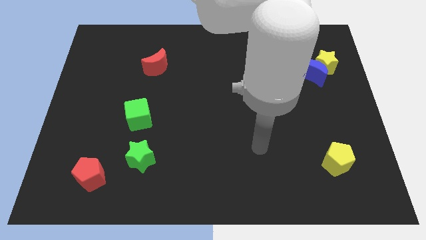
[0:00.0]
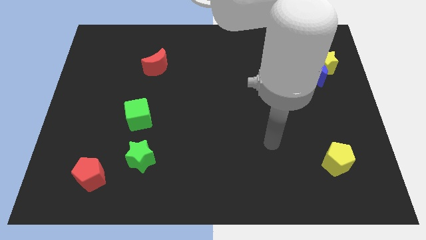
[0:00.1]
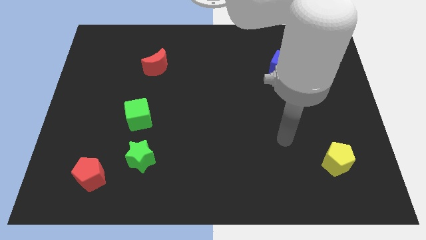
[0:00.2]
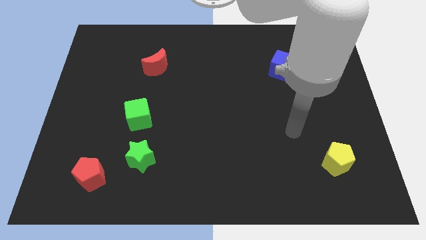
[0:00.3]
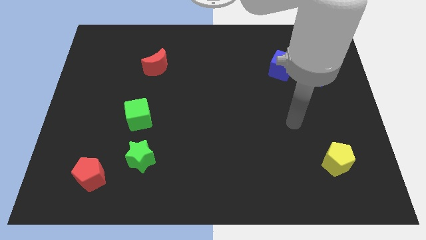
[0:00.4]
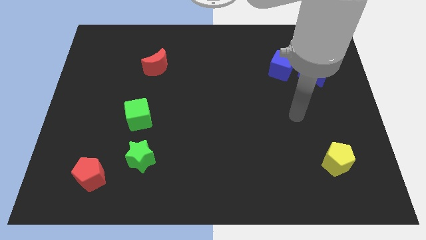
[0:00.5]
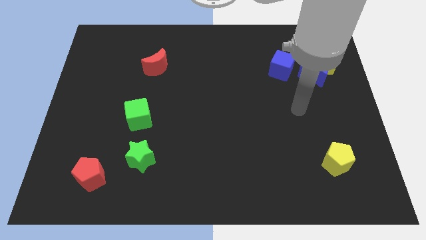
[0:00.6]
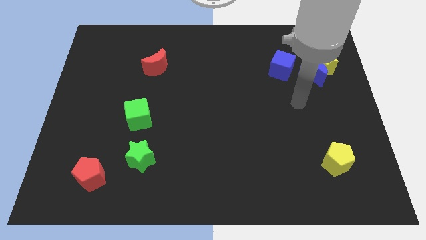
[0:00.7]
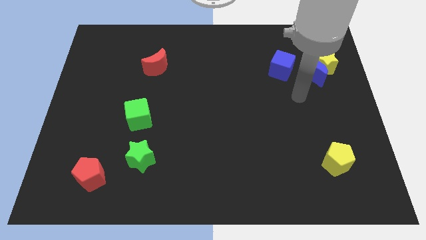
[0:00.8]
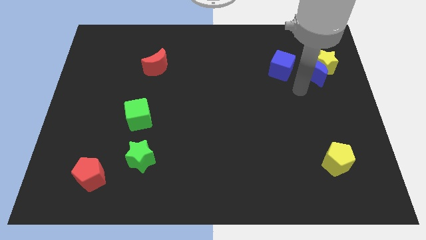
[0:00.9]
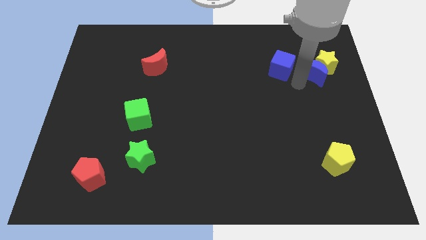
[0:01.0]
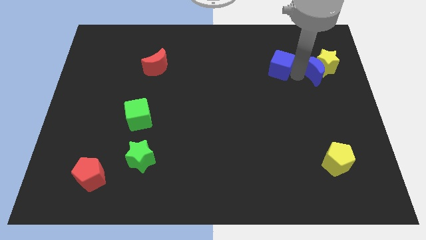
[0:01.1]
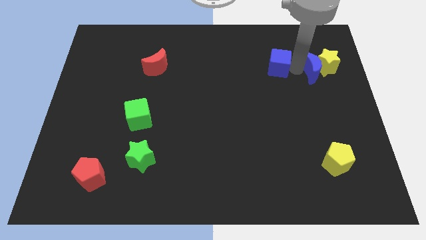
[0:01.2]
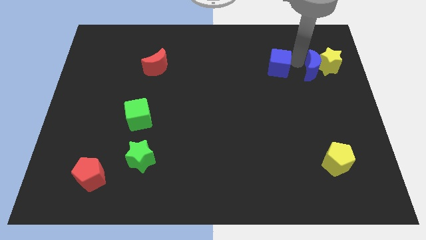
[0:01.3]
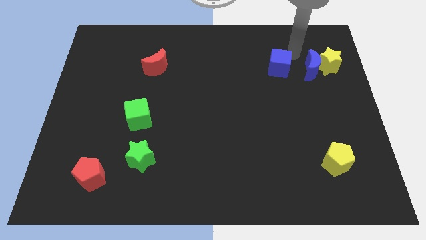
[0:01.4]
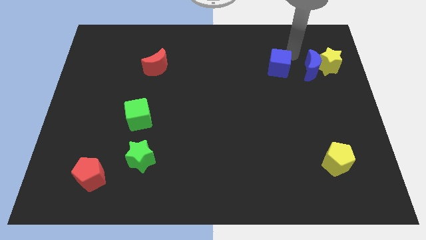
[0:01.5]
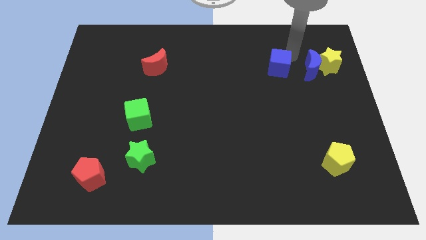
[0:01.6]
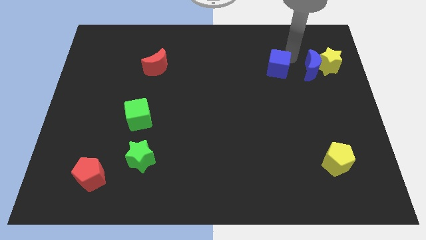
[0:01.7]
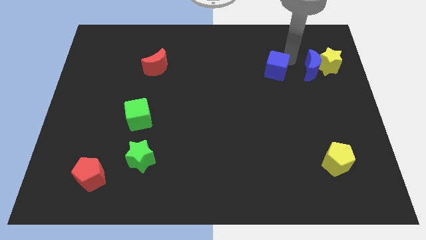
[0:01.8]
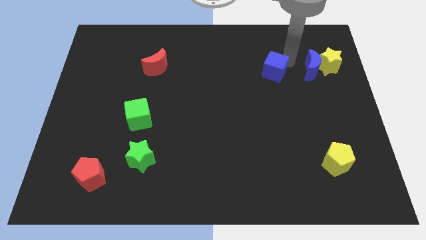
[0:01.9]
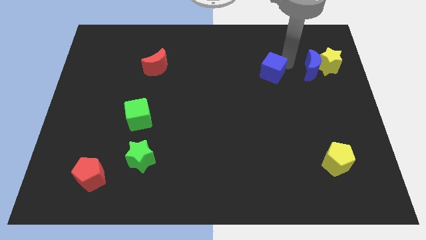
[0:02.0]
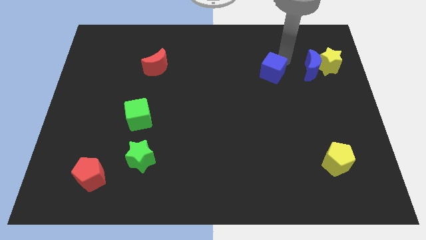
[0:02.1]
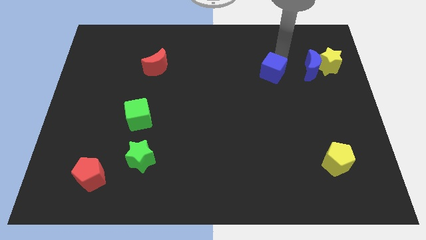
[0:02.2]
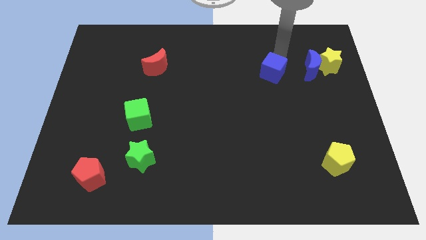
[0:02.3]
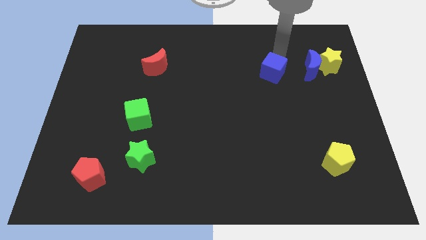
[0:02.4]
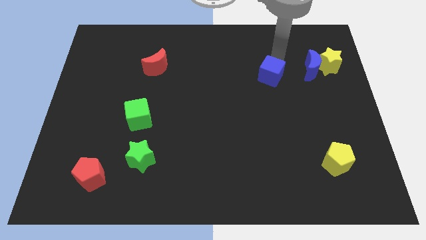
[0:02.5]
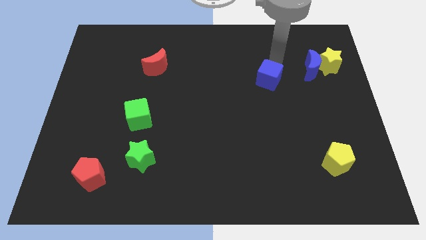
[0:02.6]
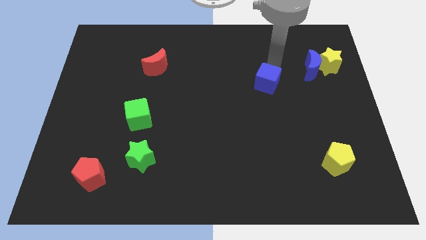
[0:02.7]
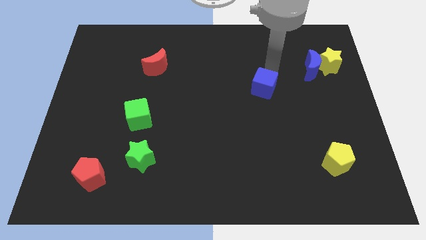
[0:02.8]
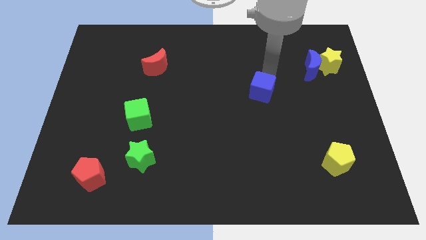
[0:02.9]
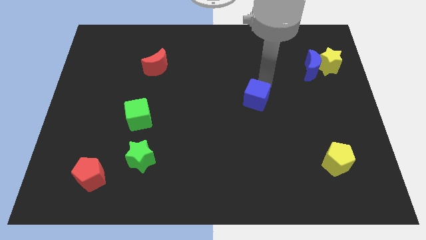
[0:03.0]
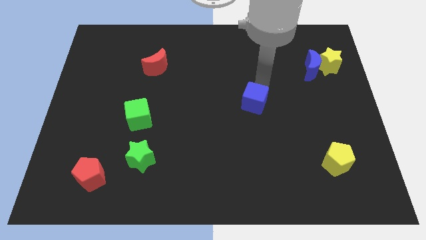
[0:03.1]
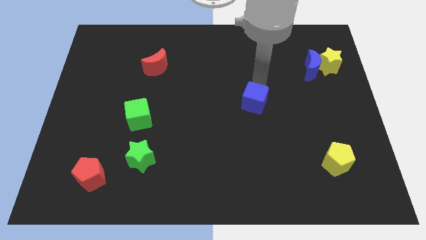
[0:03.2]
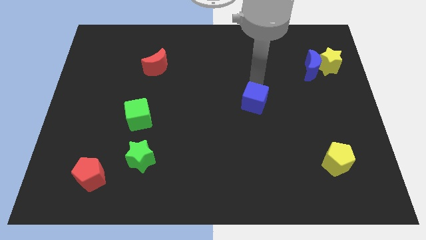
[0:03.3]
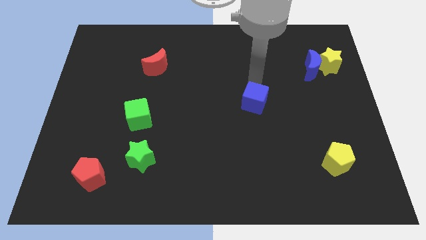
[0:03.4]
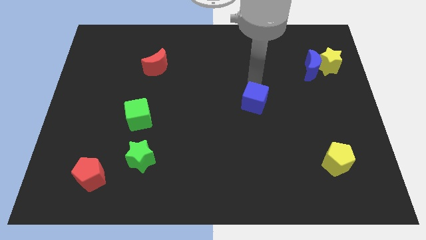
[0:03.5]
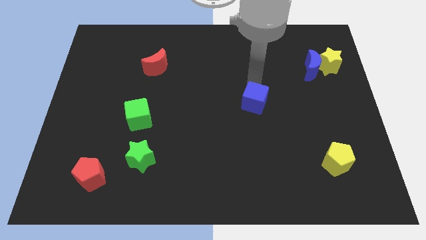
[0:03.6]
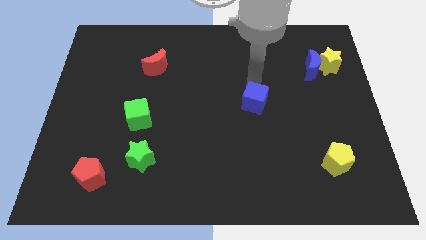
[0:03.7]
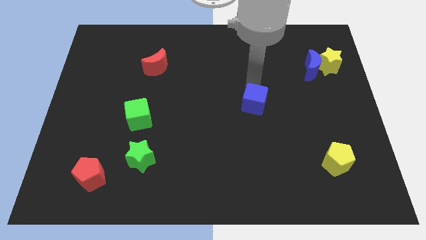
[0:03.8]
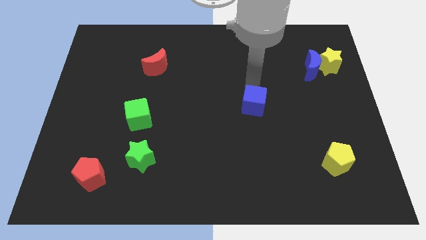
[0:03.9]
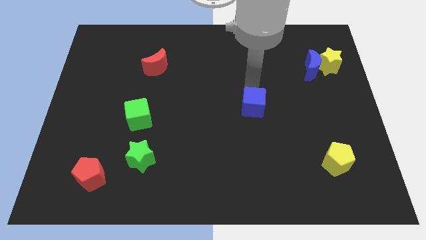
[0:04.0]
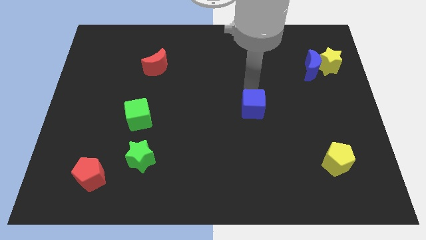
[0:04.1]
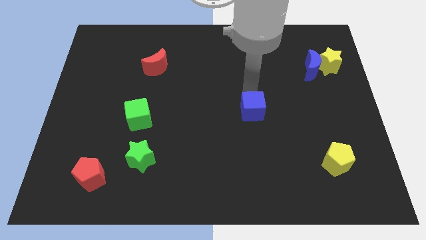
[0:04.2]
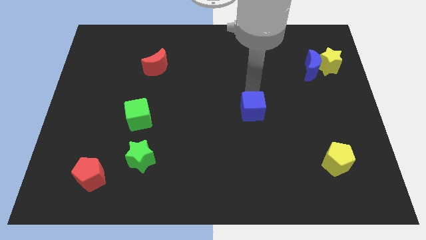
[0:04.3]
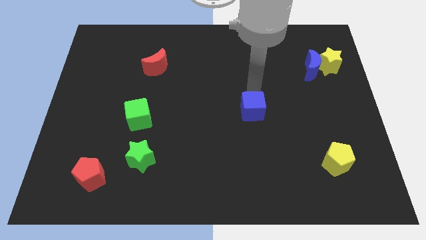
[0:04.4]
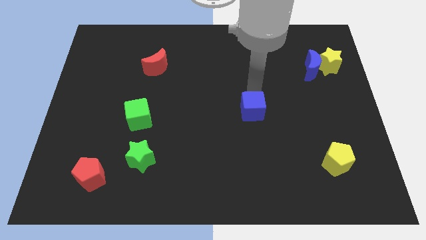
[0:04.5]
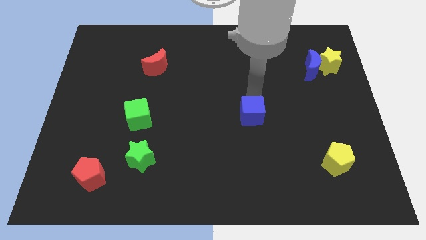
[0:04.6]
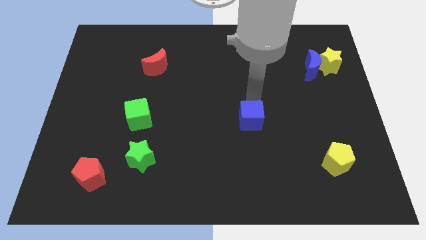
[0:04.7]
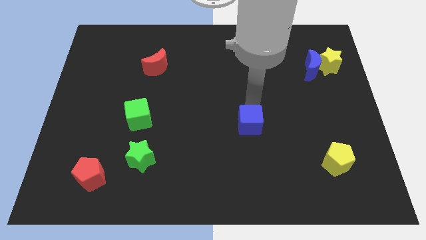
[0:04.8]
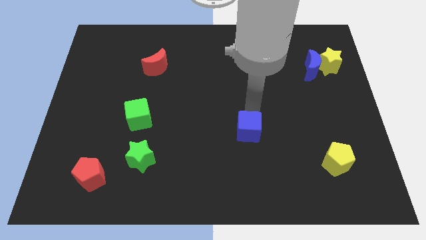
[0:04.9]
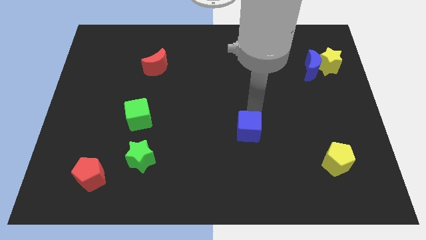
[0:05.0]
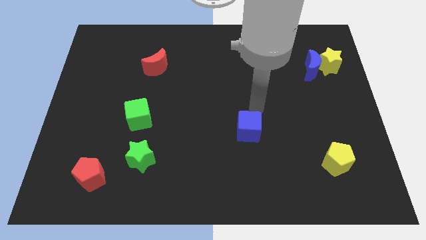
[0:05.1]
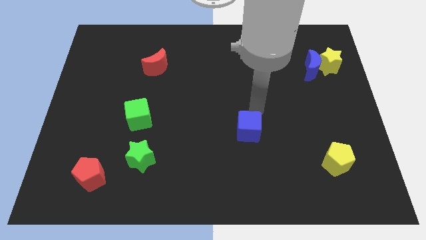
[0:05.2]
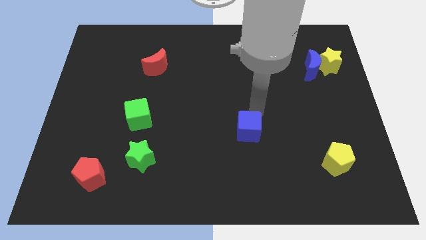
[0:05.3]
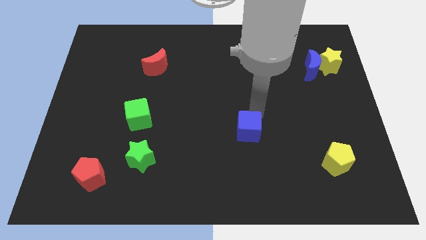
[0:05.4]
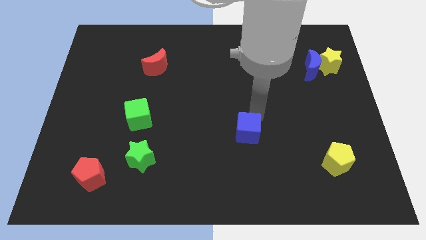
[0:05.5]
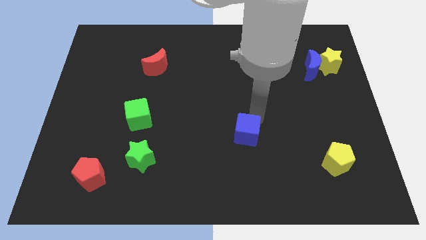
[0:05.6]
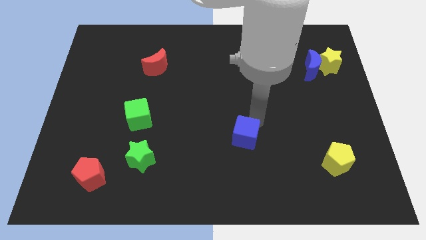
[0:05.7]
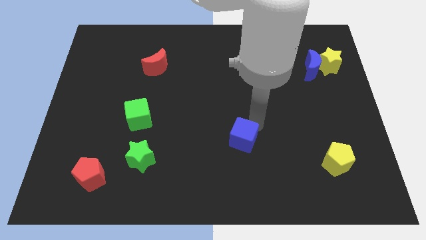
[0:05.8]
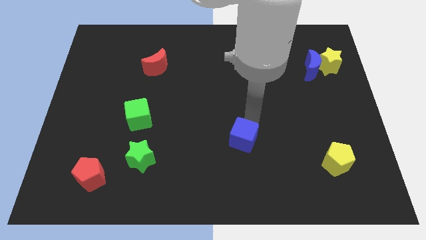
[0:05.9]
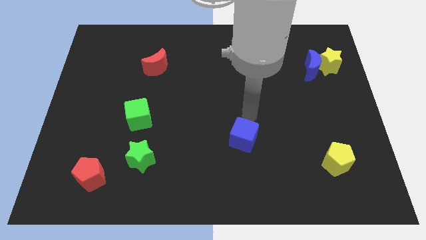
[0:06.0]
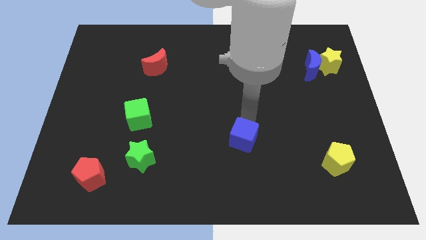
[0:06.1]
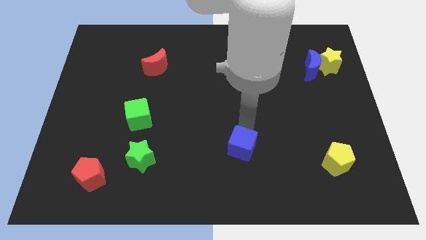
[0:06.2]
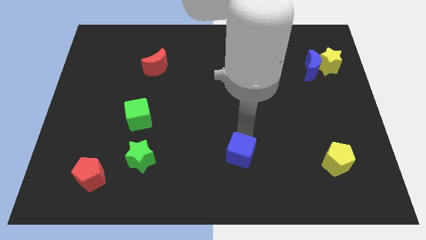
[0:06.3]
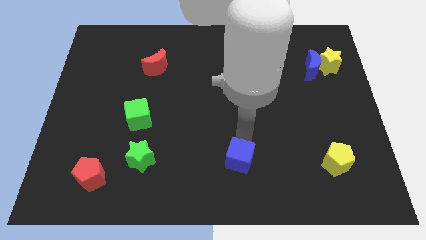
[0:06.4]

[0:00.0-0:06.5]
push the blue cube to the bottom
